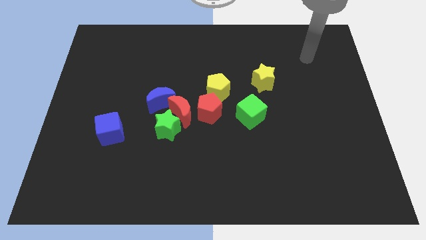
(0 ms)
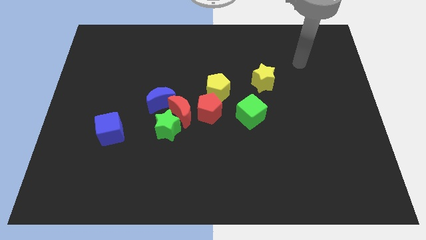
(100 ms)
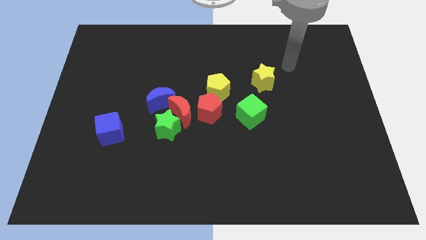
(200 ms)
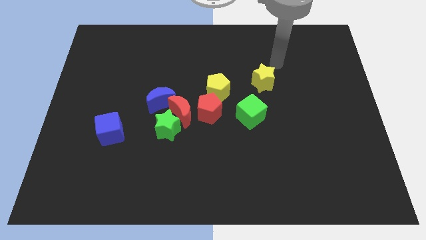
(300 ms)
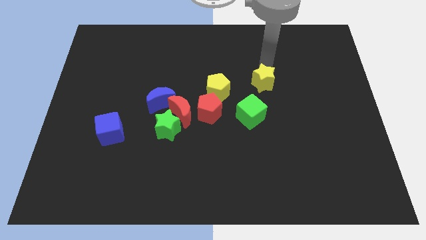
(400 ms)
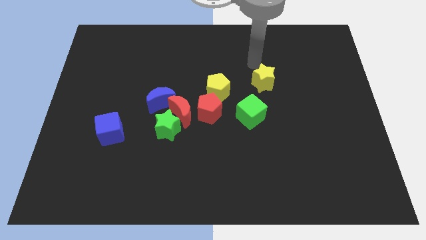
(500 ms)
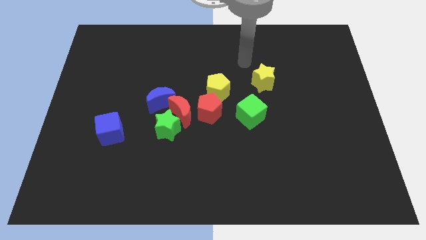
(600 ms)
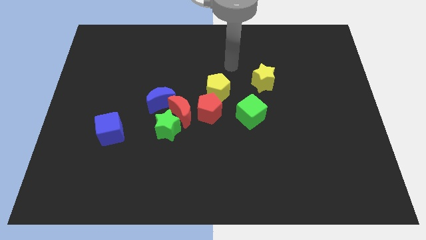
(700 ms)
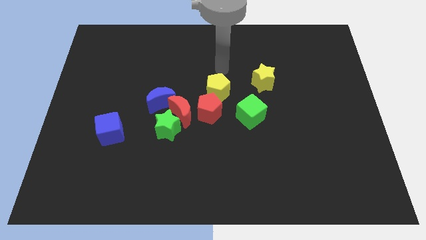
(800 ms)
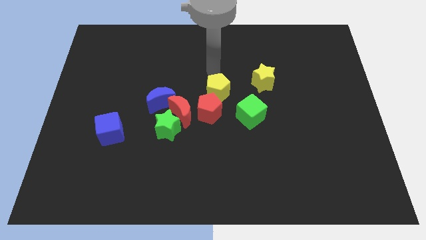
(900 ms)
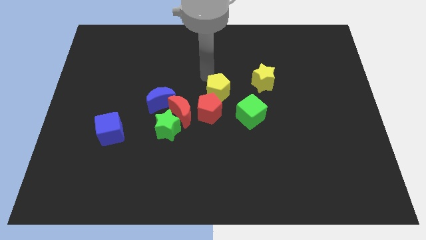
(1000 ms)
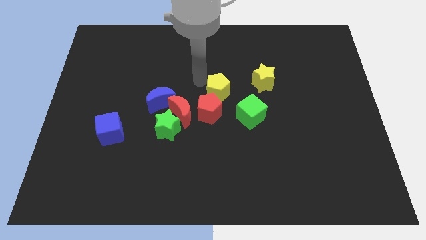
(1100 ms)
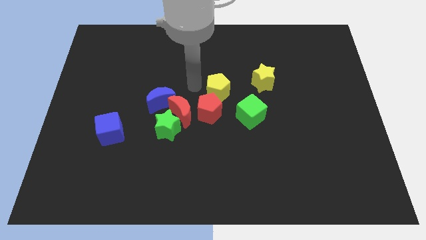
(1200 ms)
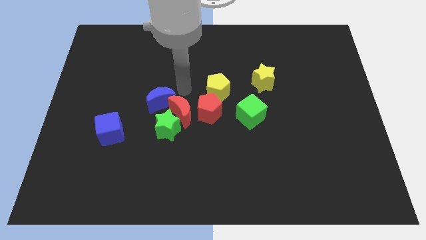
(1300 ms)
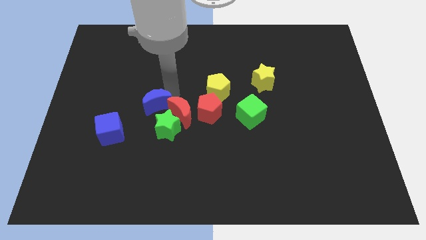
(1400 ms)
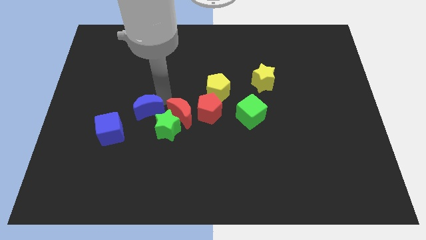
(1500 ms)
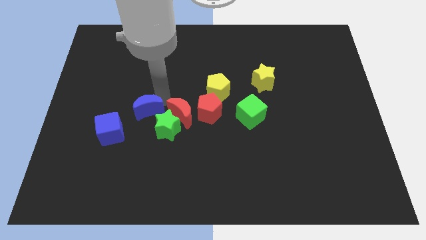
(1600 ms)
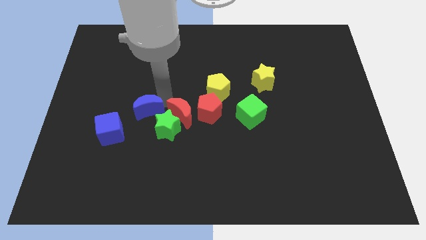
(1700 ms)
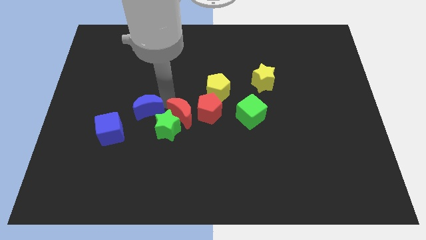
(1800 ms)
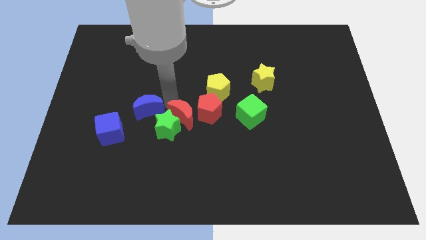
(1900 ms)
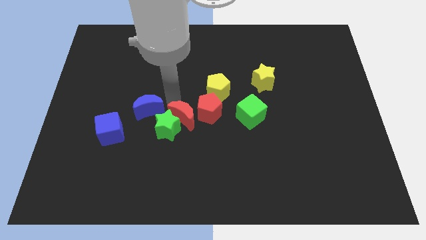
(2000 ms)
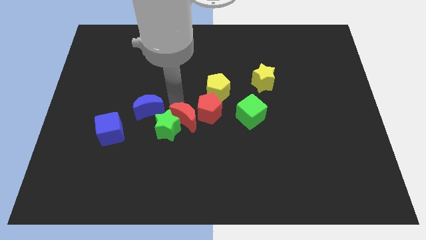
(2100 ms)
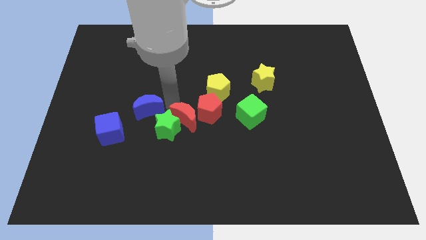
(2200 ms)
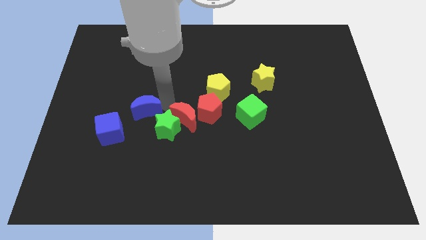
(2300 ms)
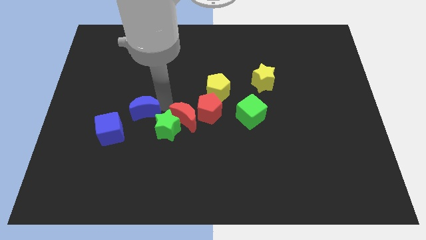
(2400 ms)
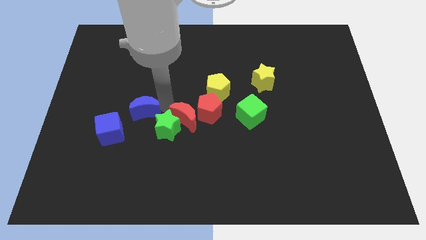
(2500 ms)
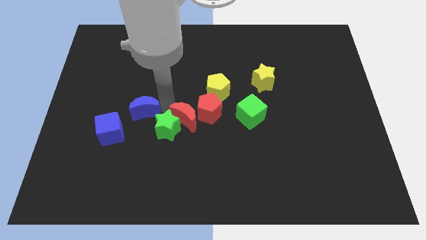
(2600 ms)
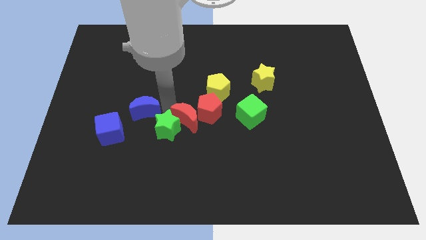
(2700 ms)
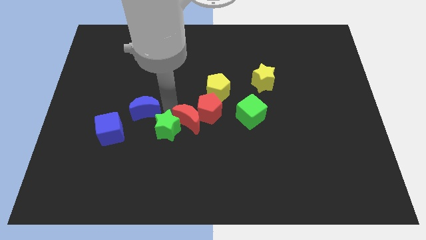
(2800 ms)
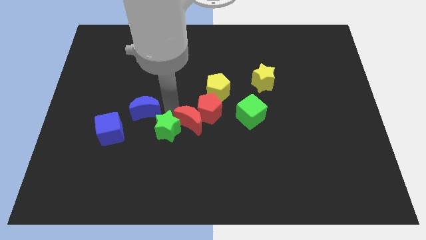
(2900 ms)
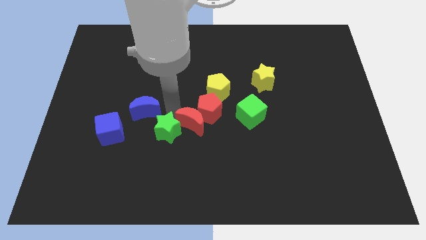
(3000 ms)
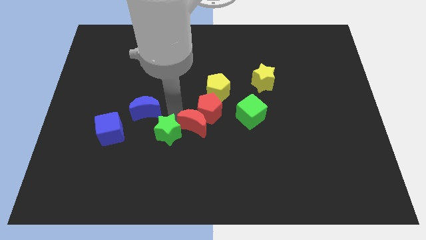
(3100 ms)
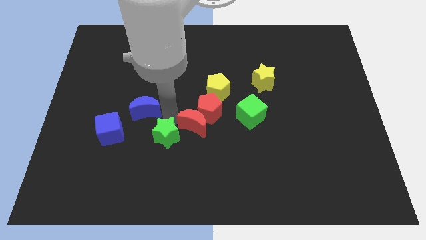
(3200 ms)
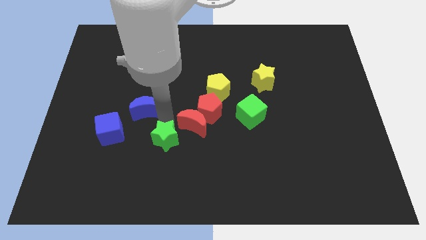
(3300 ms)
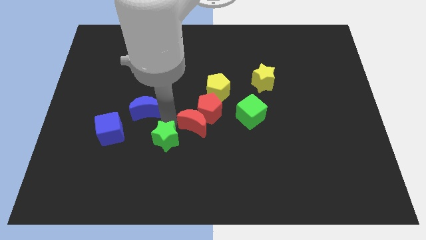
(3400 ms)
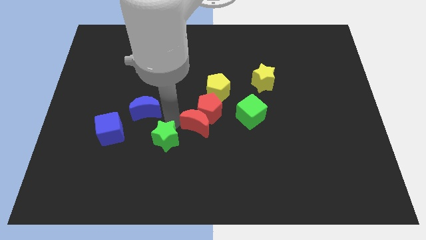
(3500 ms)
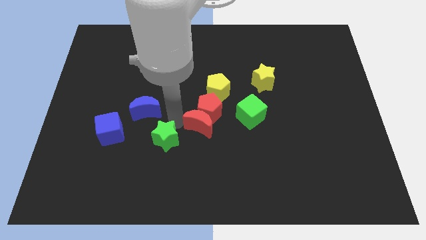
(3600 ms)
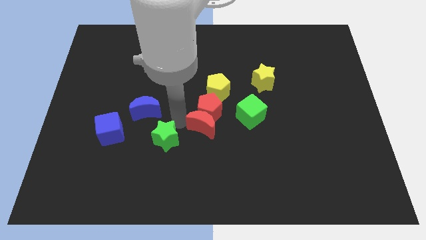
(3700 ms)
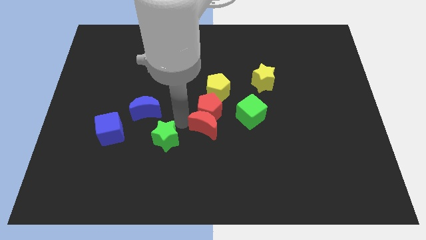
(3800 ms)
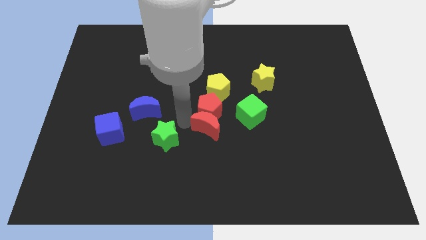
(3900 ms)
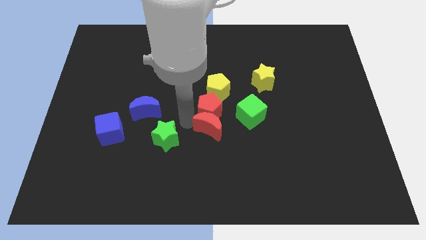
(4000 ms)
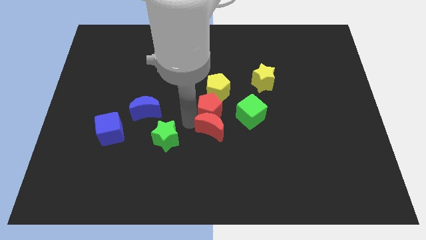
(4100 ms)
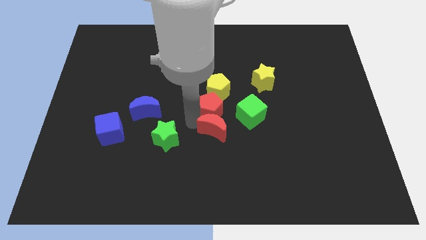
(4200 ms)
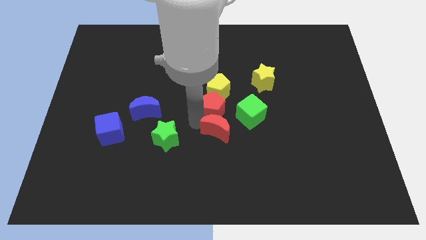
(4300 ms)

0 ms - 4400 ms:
move the red moon away from the clump

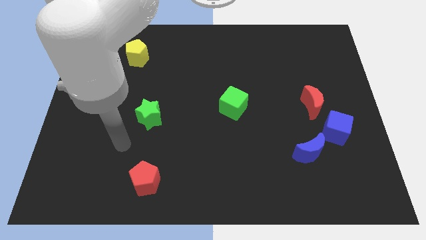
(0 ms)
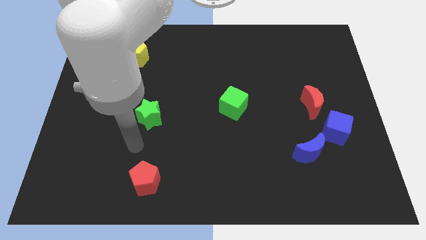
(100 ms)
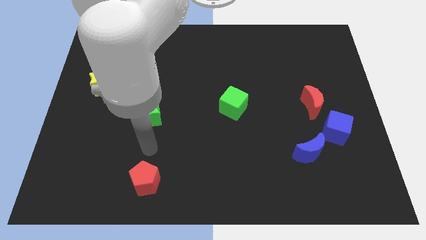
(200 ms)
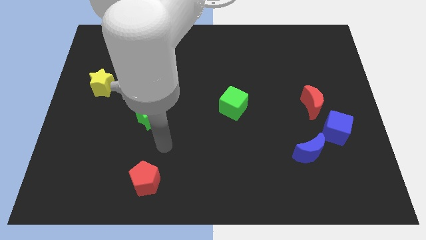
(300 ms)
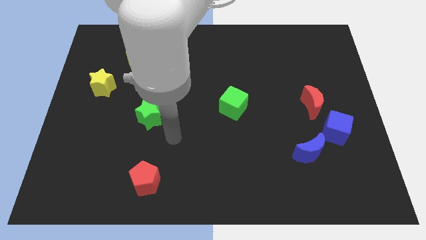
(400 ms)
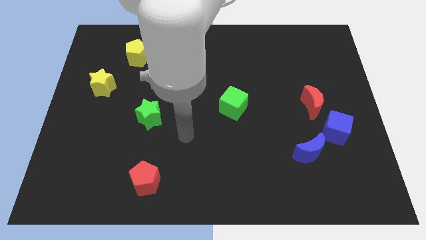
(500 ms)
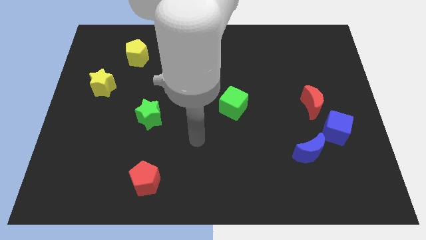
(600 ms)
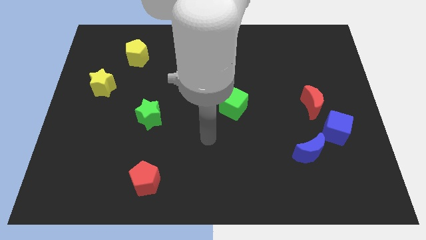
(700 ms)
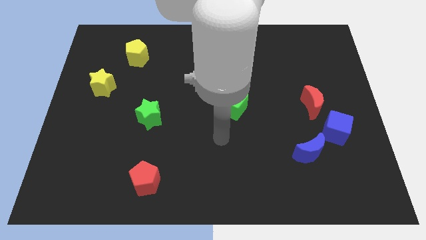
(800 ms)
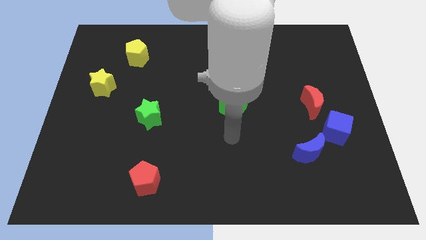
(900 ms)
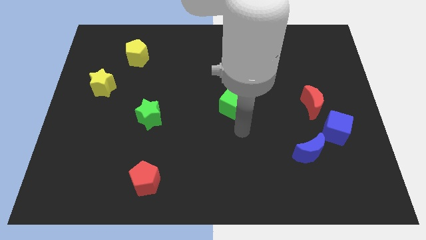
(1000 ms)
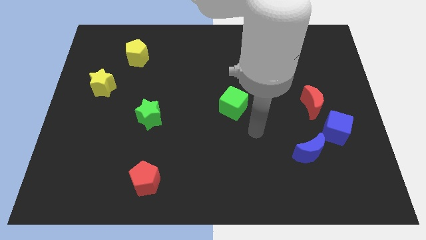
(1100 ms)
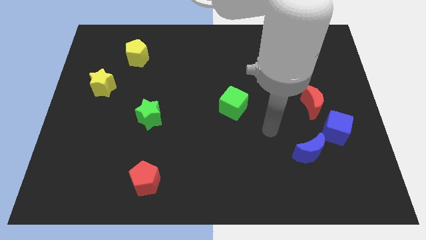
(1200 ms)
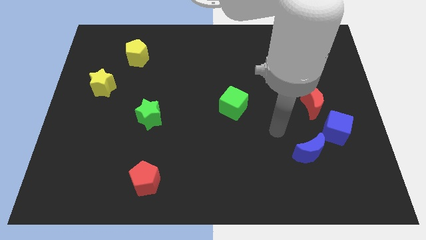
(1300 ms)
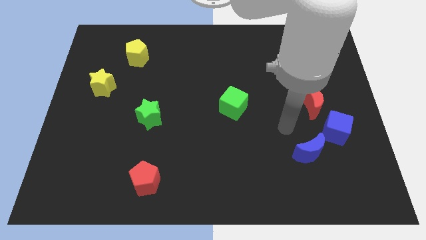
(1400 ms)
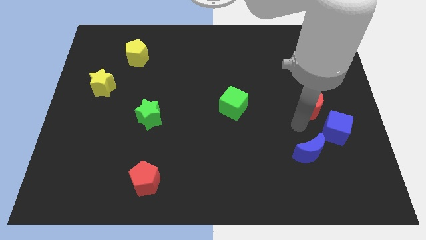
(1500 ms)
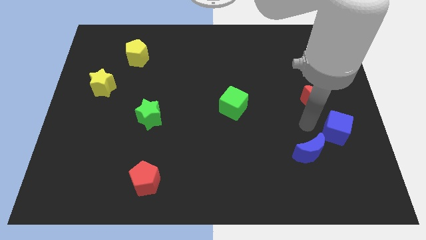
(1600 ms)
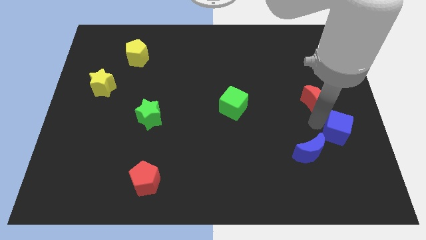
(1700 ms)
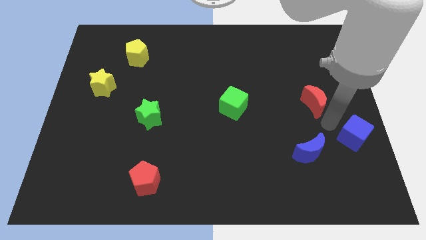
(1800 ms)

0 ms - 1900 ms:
separate the red moon from the blue cube

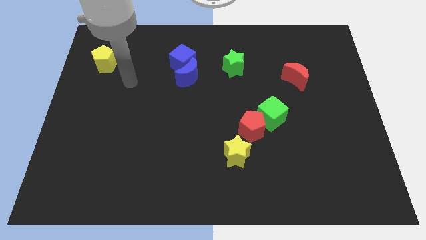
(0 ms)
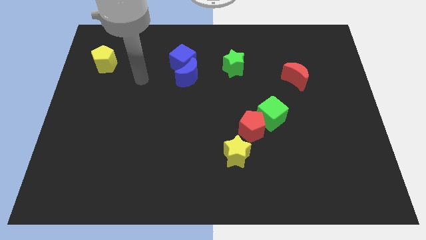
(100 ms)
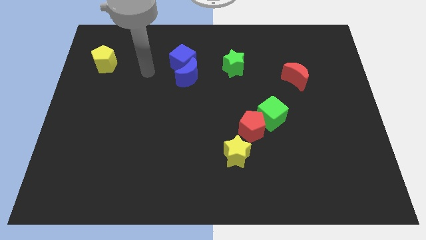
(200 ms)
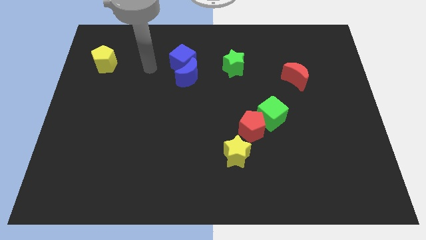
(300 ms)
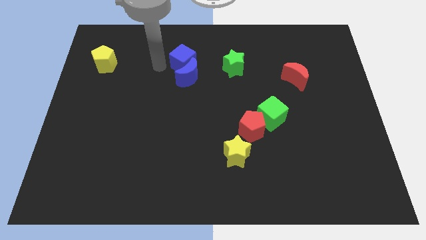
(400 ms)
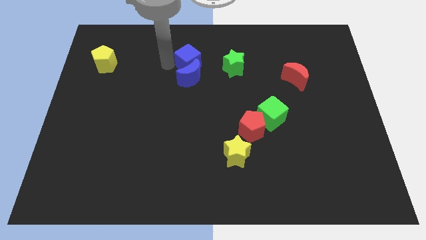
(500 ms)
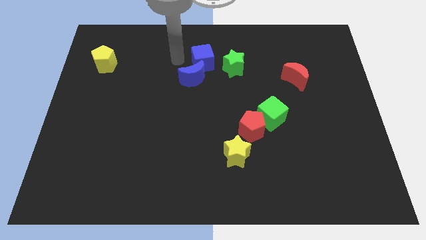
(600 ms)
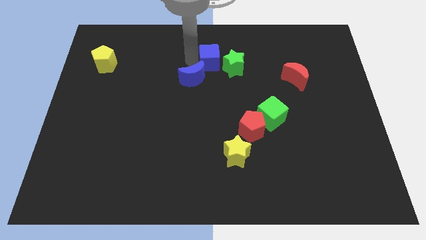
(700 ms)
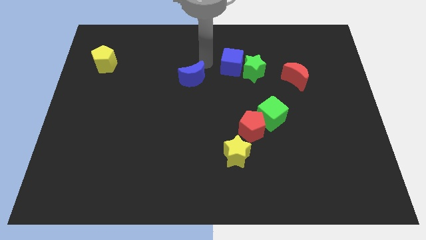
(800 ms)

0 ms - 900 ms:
separate the blue moon from the blue cube

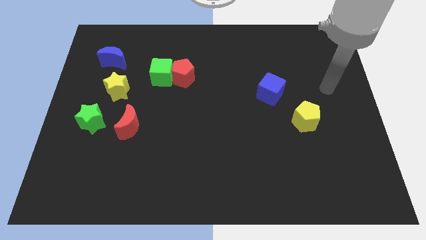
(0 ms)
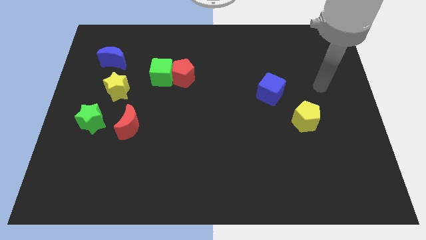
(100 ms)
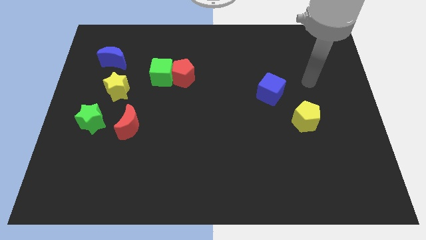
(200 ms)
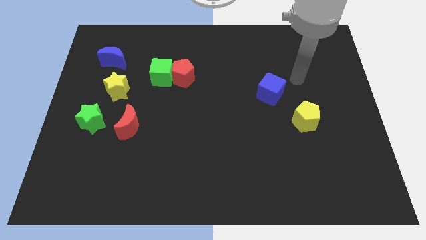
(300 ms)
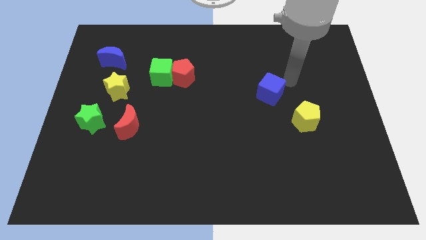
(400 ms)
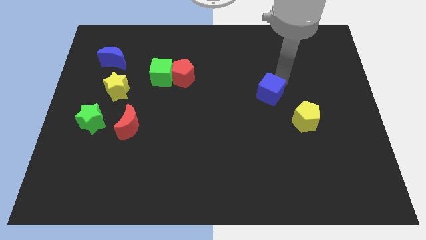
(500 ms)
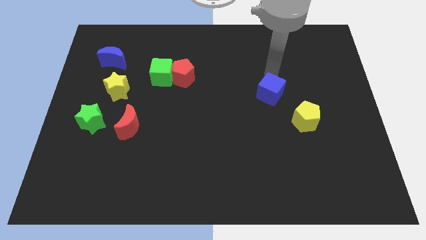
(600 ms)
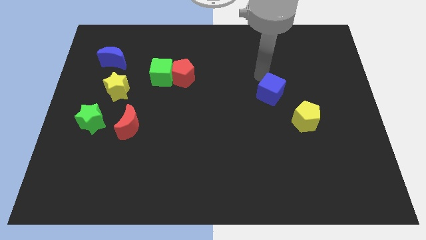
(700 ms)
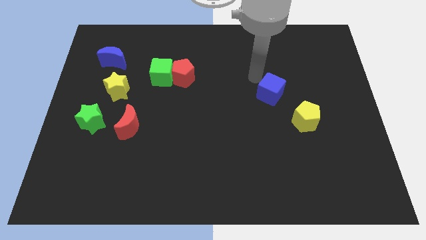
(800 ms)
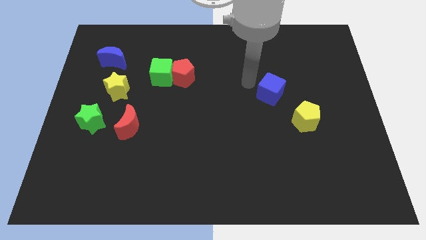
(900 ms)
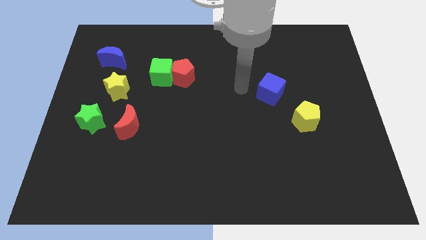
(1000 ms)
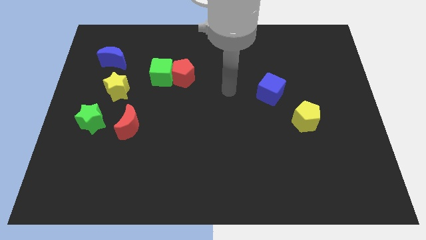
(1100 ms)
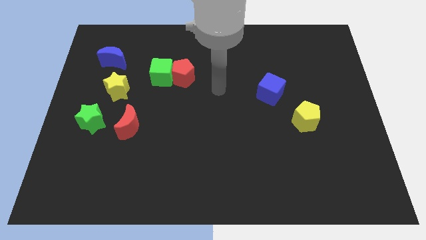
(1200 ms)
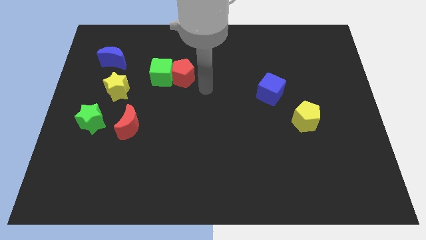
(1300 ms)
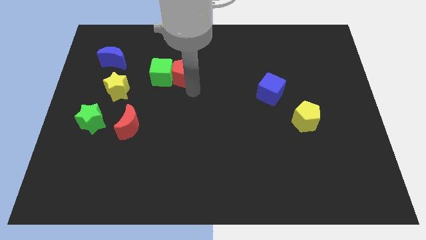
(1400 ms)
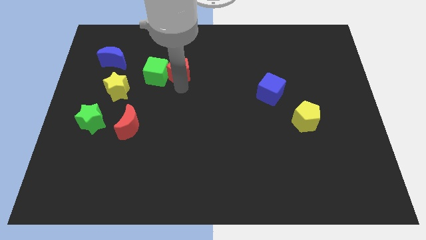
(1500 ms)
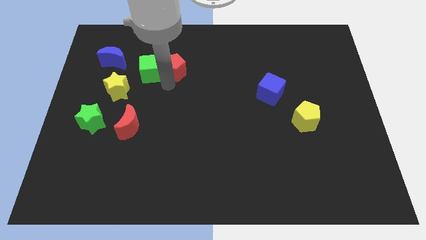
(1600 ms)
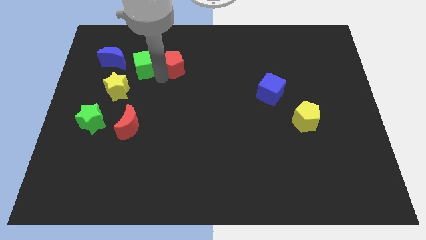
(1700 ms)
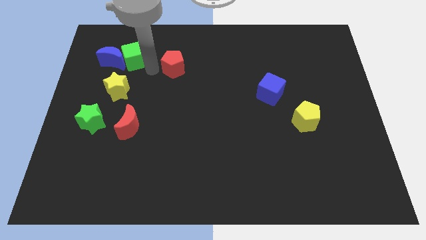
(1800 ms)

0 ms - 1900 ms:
separate the red pentagon from the green cube
